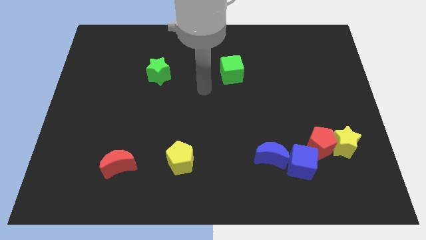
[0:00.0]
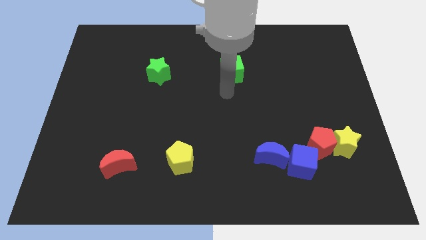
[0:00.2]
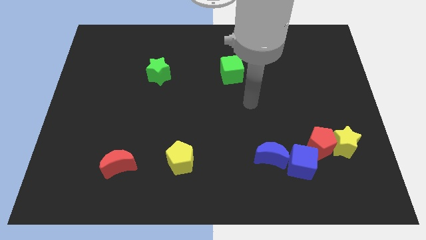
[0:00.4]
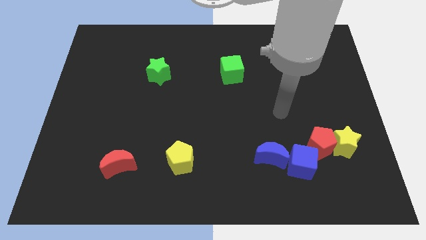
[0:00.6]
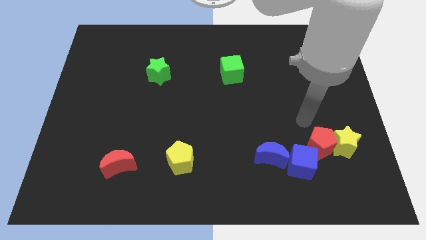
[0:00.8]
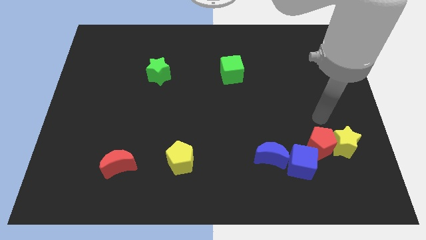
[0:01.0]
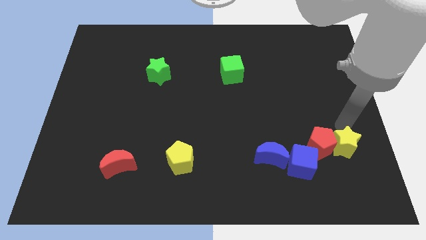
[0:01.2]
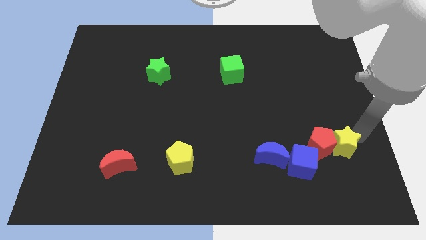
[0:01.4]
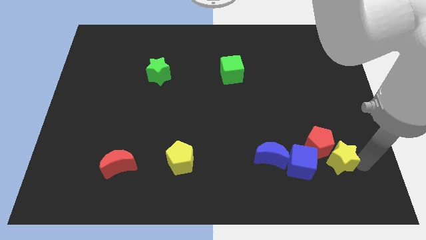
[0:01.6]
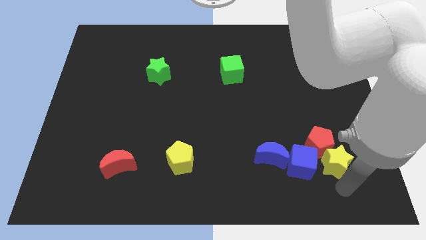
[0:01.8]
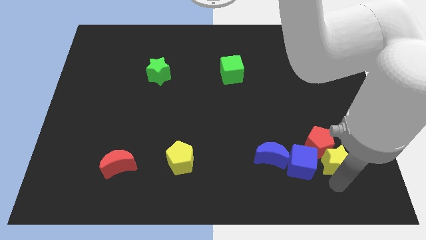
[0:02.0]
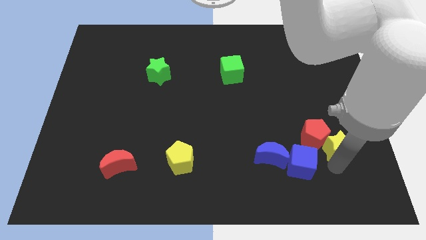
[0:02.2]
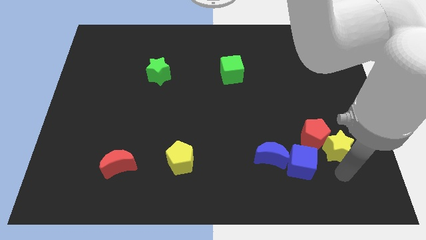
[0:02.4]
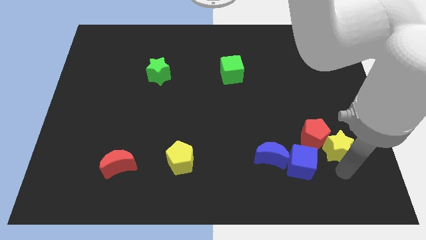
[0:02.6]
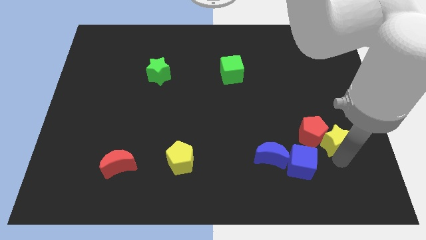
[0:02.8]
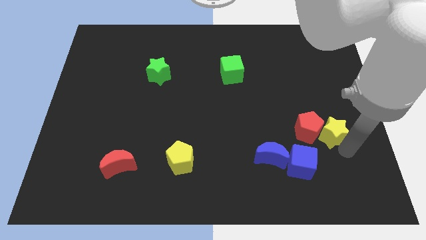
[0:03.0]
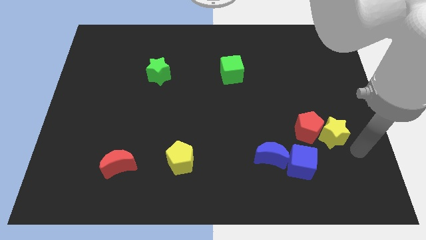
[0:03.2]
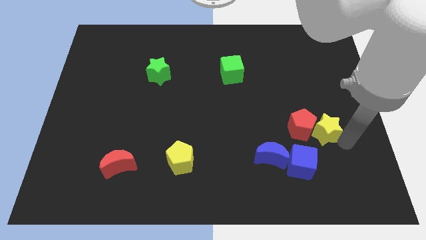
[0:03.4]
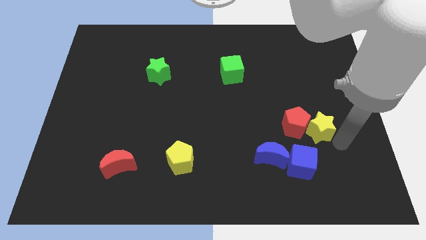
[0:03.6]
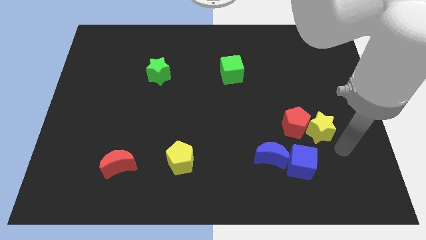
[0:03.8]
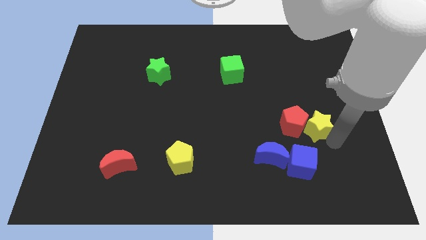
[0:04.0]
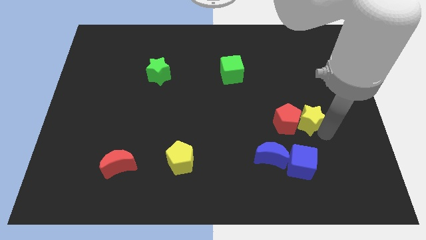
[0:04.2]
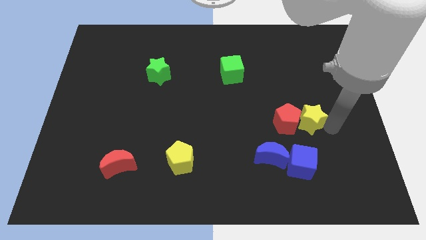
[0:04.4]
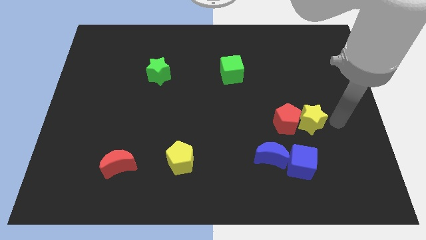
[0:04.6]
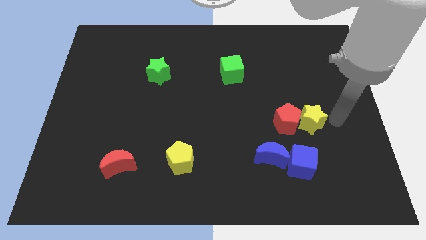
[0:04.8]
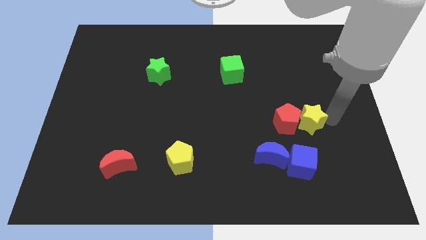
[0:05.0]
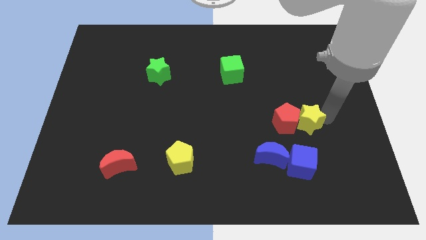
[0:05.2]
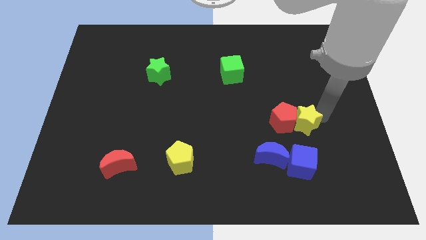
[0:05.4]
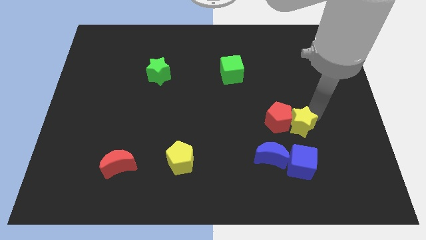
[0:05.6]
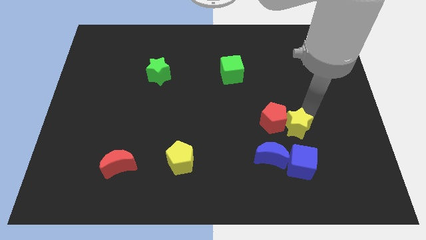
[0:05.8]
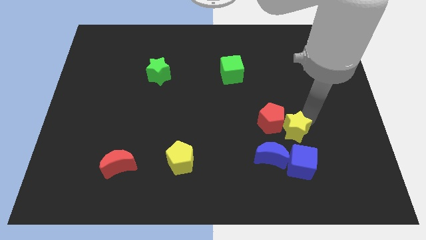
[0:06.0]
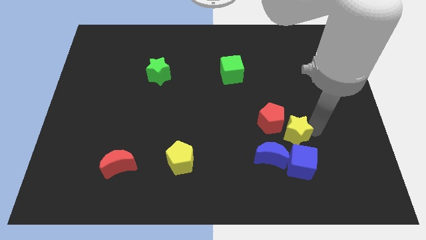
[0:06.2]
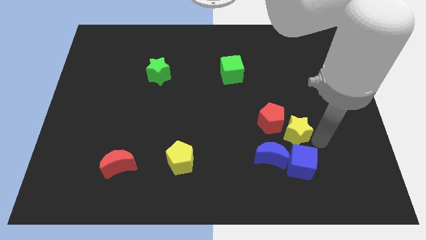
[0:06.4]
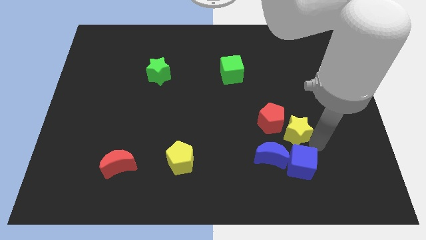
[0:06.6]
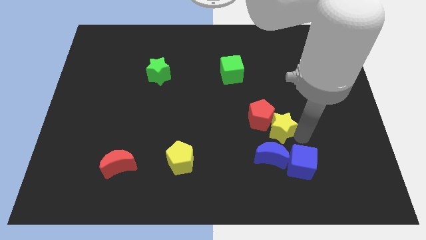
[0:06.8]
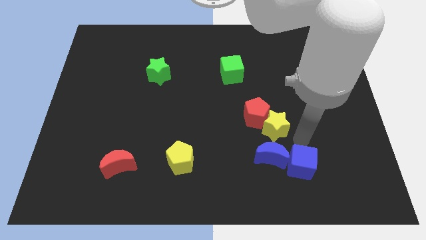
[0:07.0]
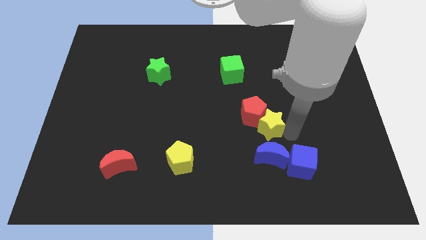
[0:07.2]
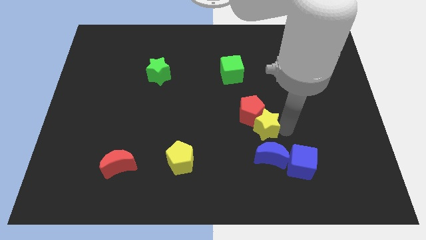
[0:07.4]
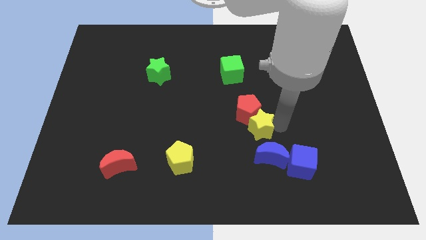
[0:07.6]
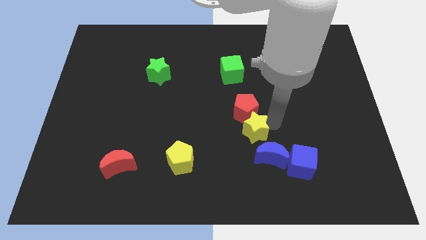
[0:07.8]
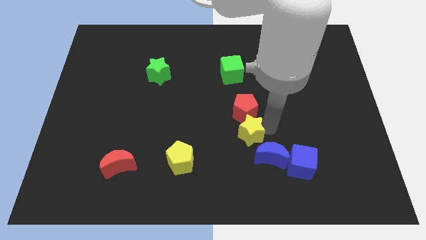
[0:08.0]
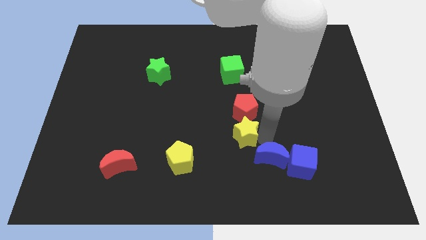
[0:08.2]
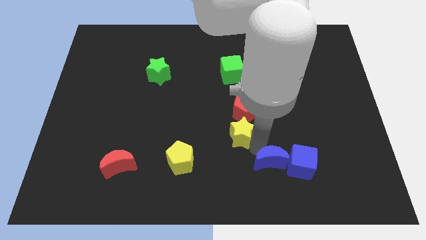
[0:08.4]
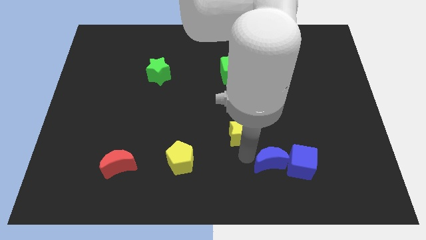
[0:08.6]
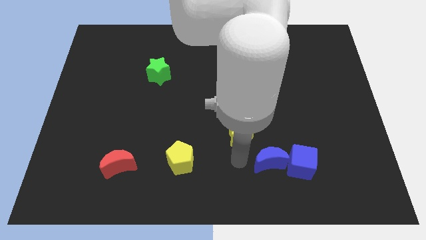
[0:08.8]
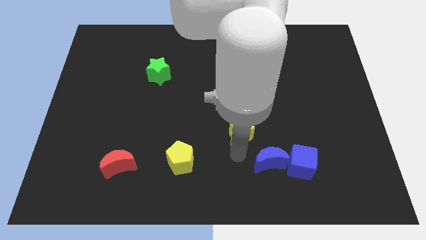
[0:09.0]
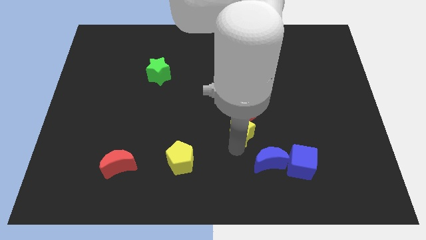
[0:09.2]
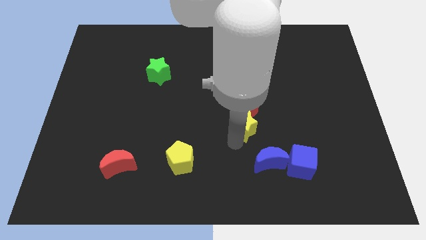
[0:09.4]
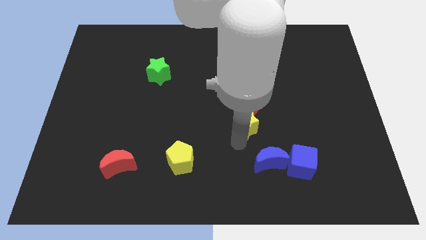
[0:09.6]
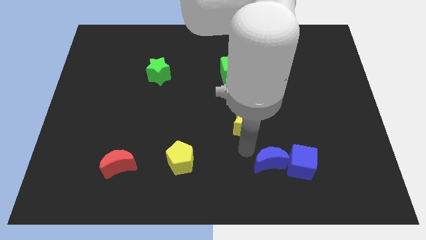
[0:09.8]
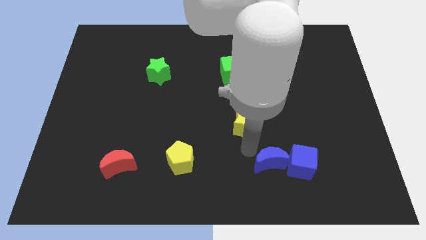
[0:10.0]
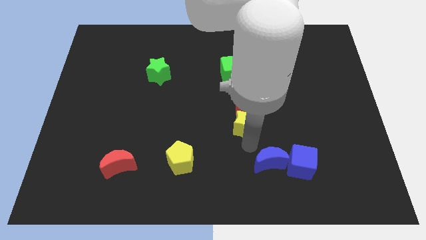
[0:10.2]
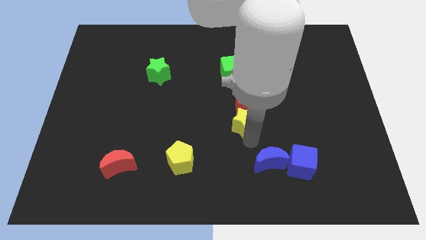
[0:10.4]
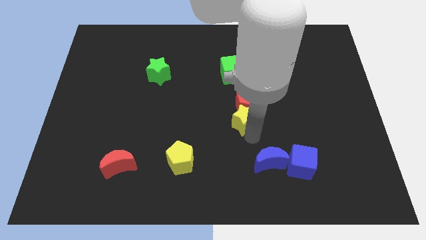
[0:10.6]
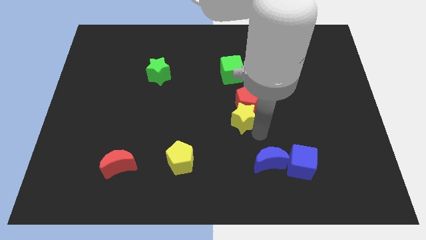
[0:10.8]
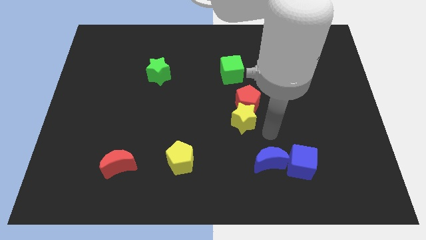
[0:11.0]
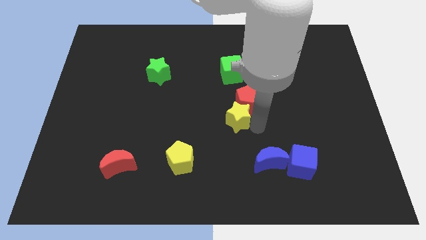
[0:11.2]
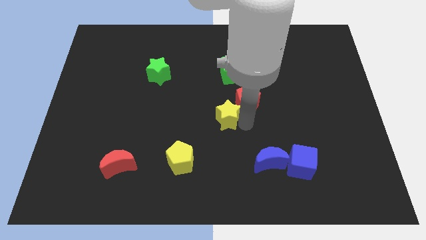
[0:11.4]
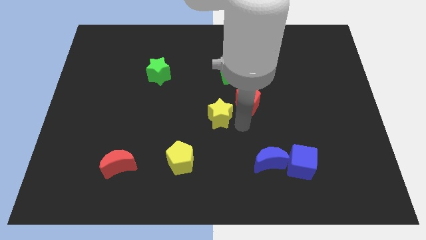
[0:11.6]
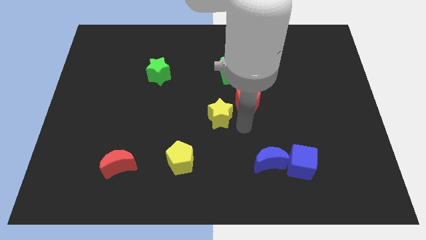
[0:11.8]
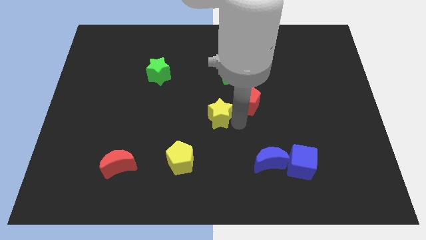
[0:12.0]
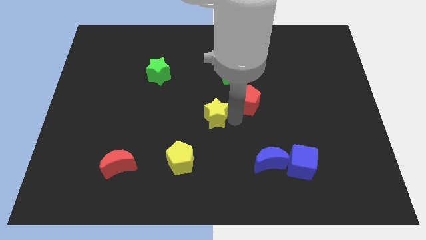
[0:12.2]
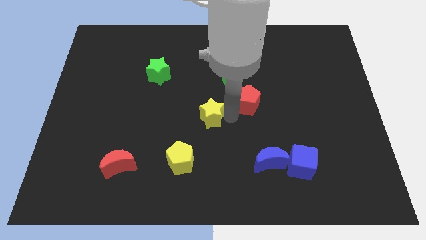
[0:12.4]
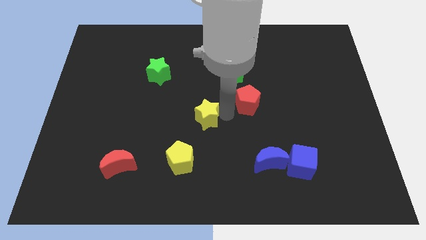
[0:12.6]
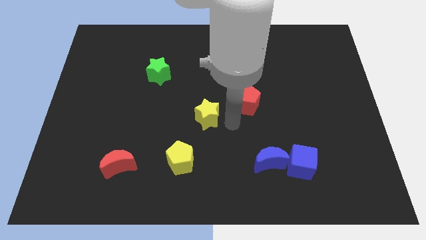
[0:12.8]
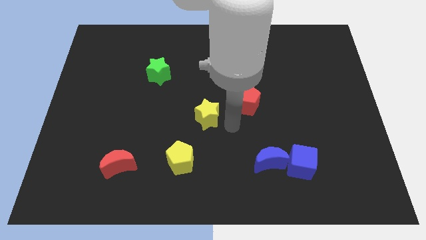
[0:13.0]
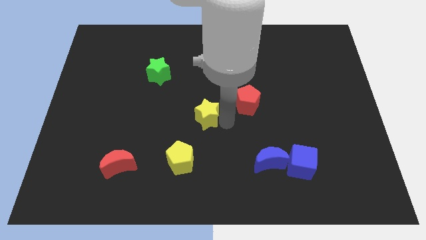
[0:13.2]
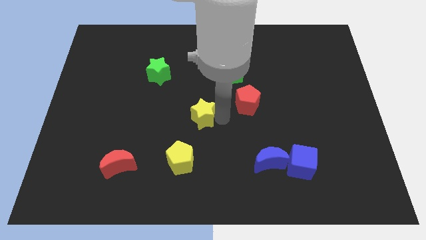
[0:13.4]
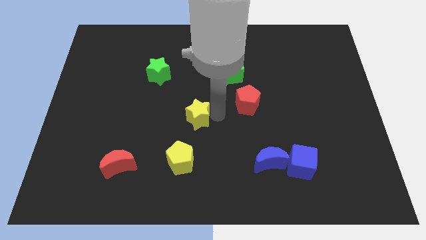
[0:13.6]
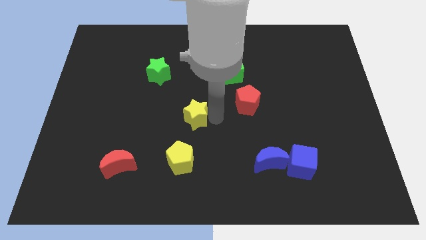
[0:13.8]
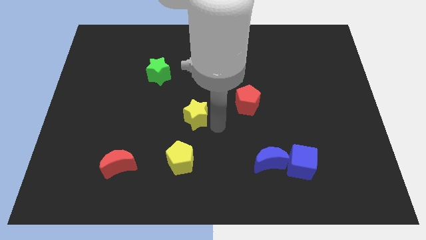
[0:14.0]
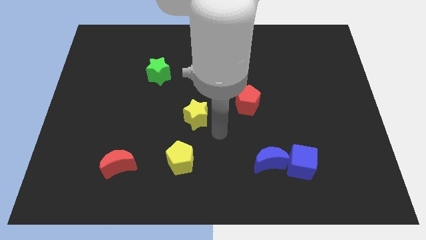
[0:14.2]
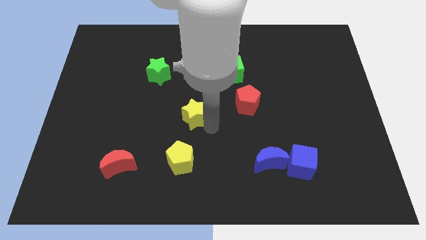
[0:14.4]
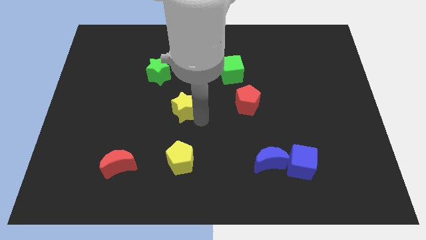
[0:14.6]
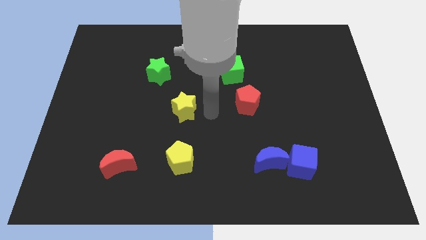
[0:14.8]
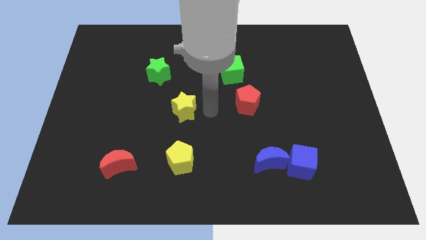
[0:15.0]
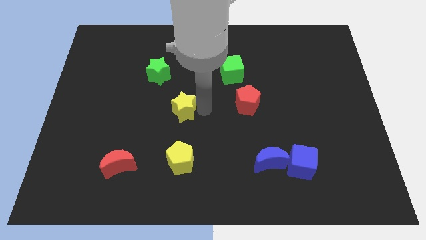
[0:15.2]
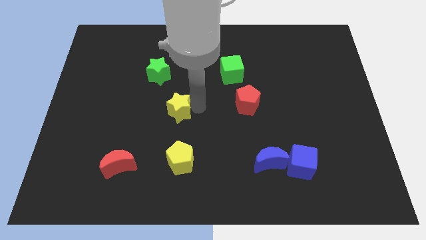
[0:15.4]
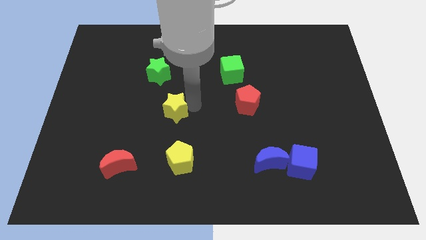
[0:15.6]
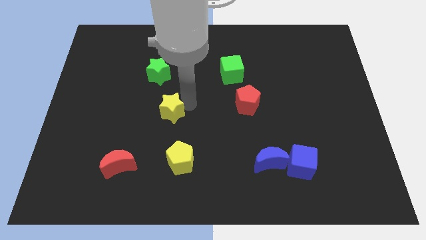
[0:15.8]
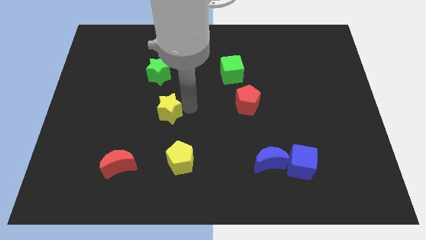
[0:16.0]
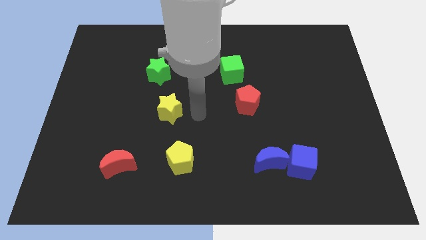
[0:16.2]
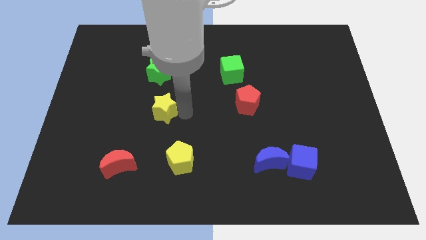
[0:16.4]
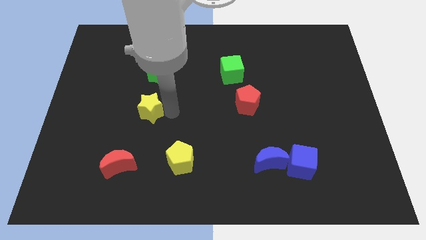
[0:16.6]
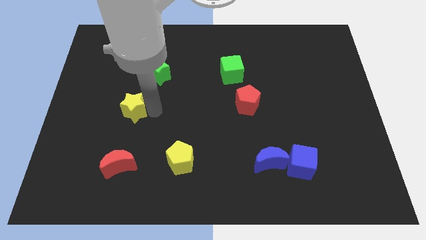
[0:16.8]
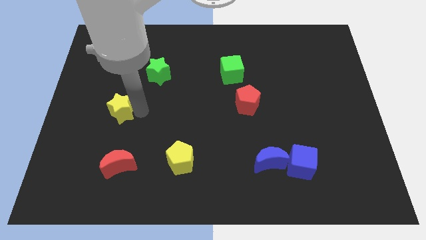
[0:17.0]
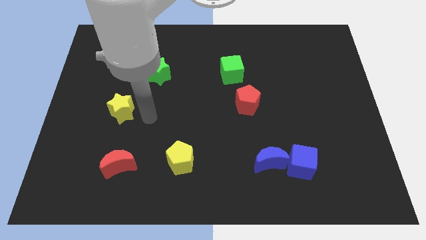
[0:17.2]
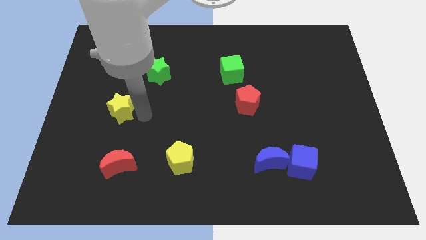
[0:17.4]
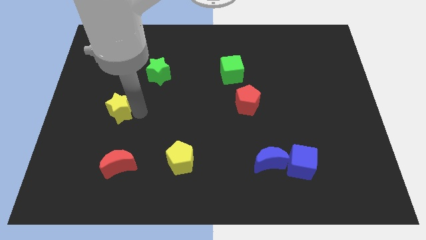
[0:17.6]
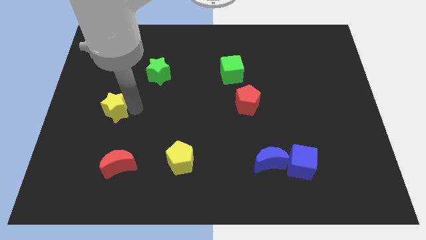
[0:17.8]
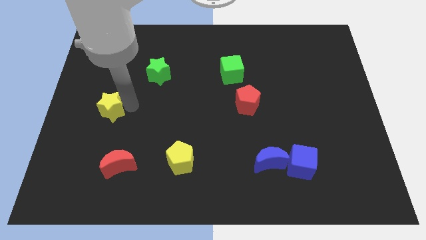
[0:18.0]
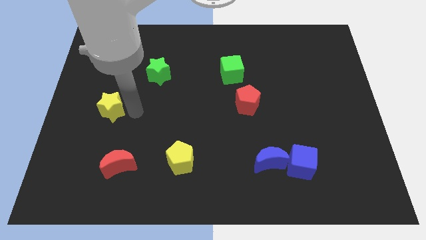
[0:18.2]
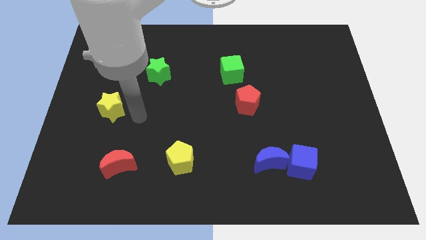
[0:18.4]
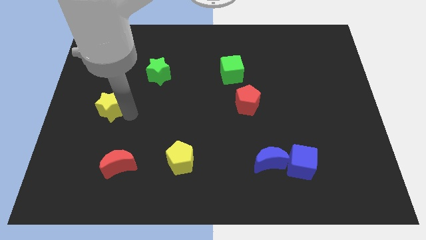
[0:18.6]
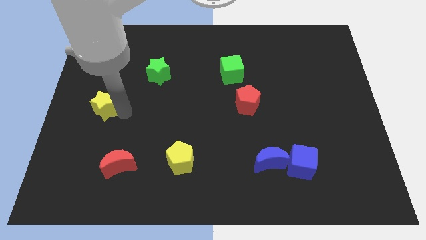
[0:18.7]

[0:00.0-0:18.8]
move the yellow star to the center left
